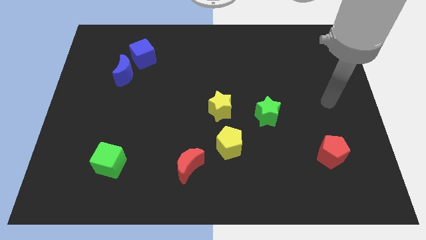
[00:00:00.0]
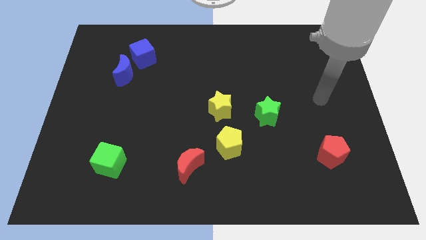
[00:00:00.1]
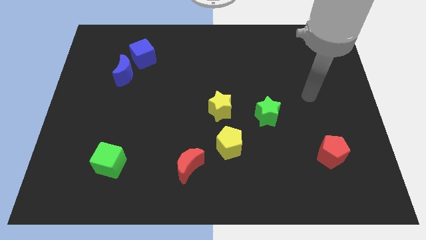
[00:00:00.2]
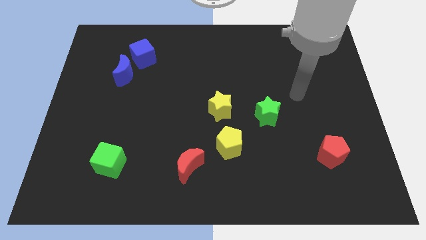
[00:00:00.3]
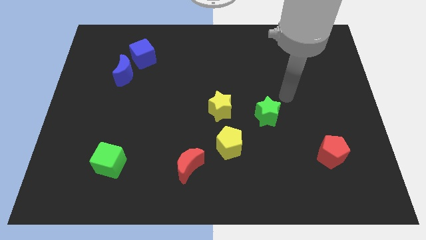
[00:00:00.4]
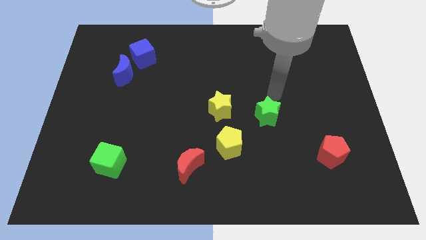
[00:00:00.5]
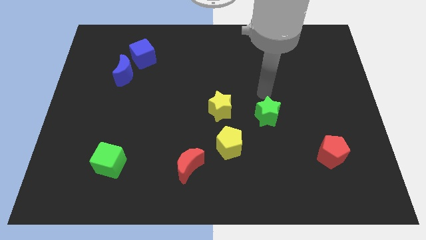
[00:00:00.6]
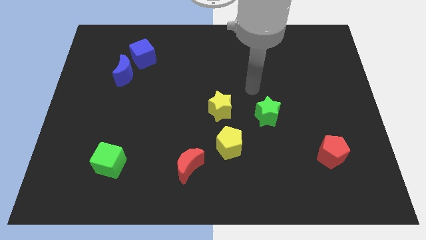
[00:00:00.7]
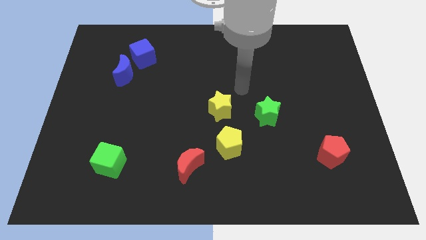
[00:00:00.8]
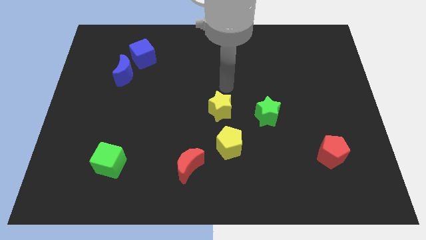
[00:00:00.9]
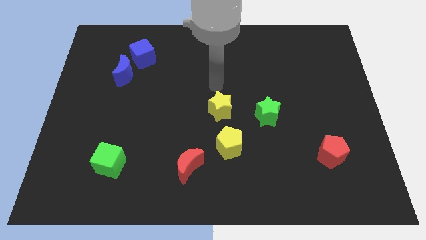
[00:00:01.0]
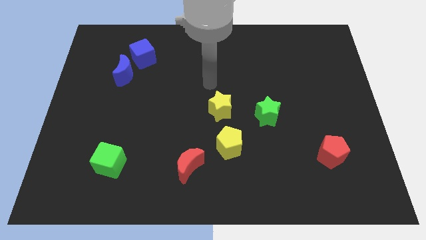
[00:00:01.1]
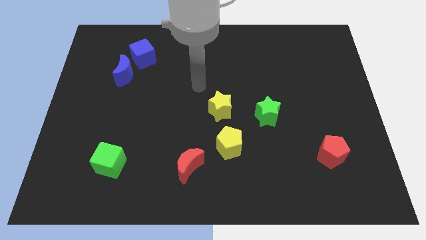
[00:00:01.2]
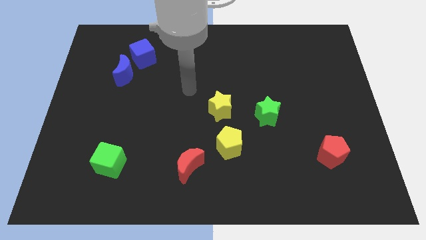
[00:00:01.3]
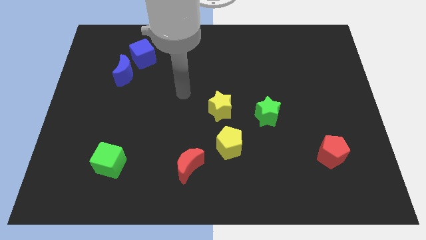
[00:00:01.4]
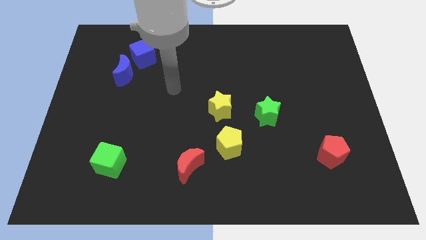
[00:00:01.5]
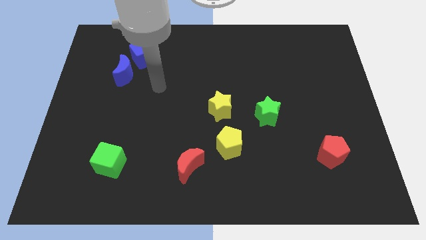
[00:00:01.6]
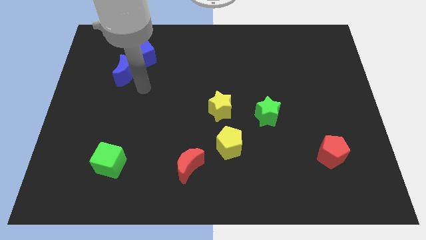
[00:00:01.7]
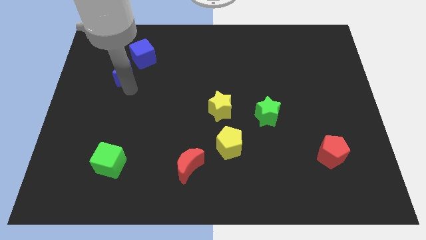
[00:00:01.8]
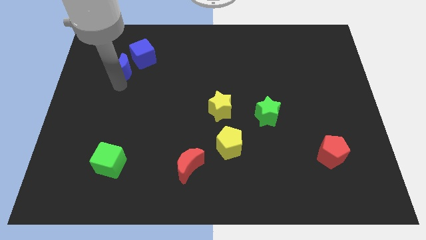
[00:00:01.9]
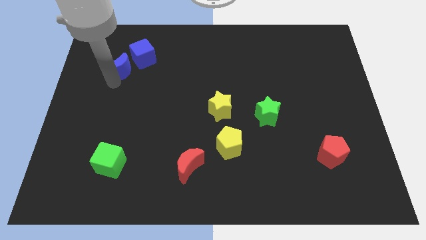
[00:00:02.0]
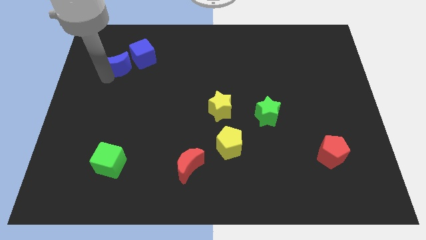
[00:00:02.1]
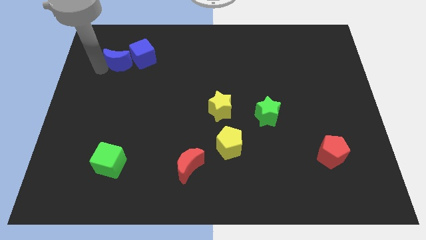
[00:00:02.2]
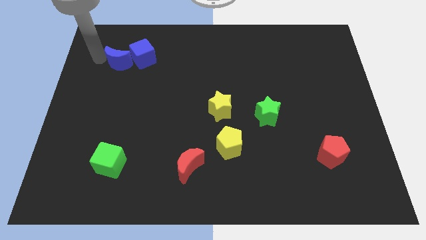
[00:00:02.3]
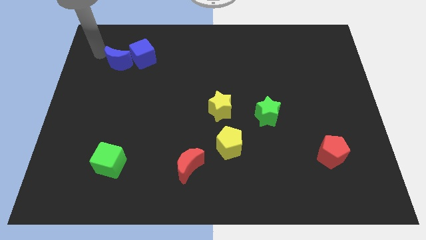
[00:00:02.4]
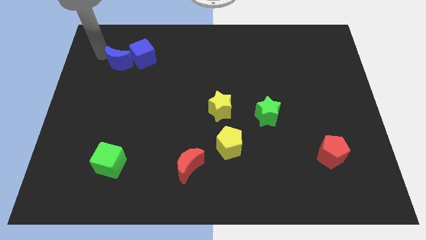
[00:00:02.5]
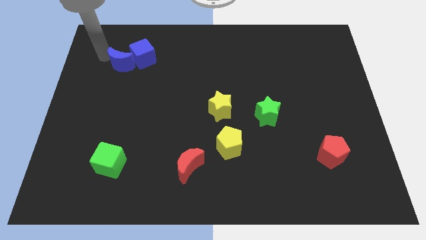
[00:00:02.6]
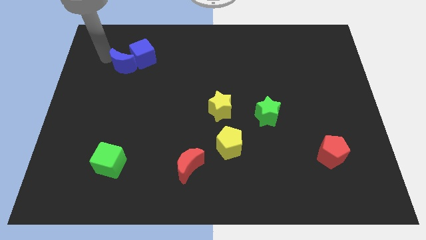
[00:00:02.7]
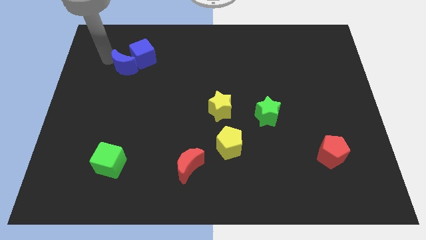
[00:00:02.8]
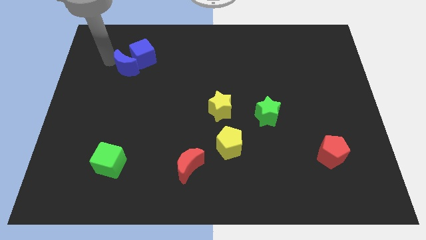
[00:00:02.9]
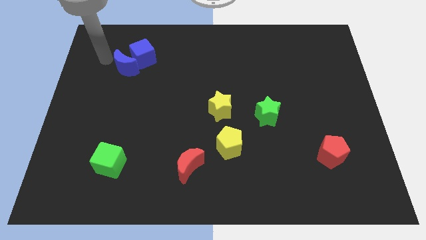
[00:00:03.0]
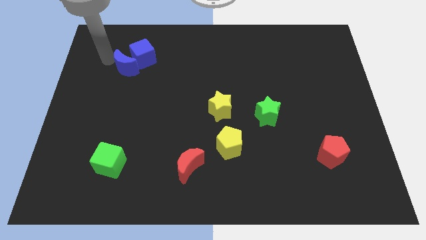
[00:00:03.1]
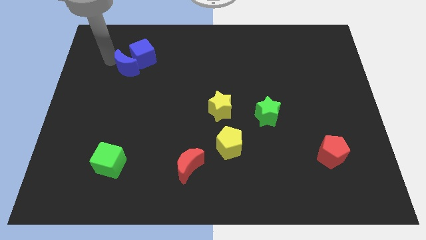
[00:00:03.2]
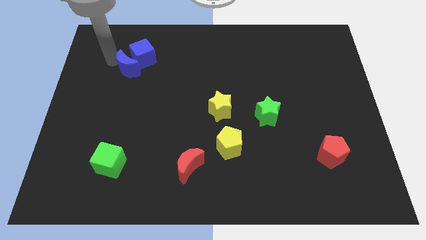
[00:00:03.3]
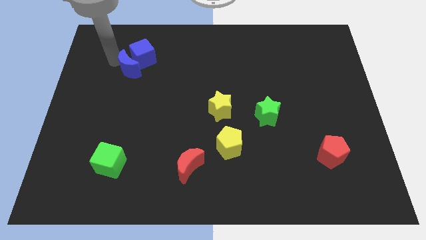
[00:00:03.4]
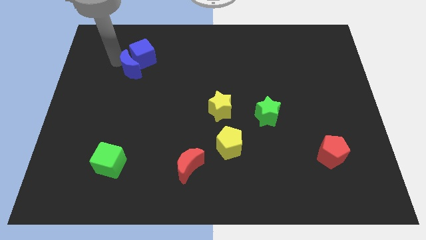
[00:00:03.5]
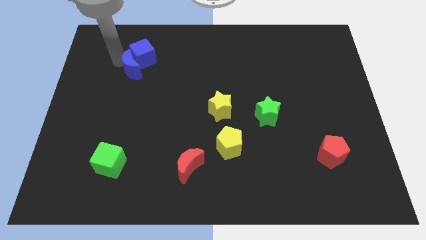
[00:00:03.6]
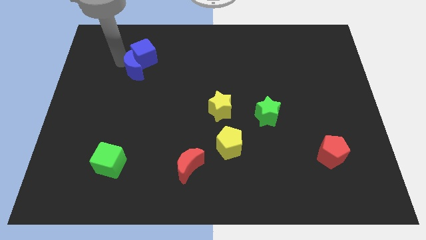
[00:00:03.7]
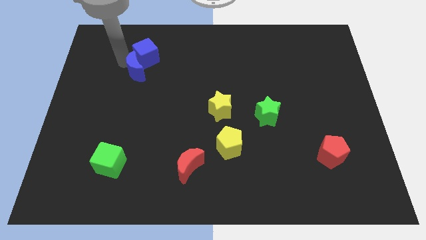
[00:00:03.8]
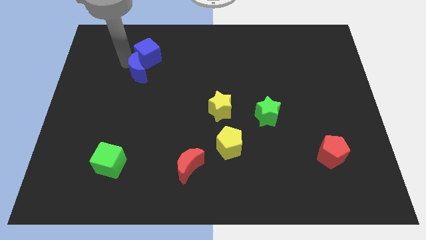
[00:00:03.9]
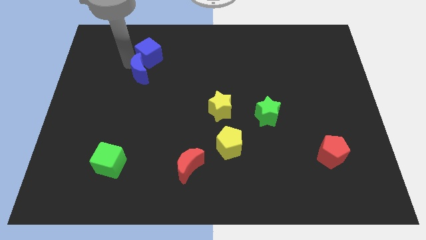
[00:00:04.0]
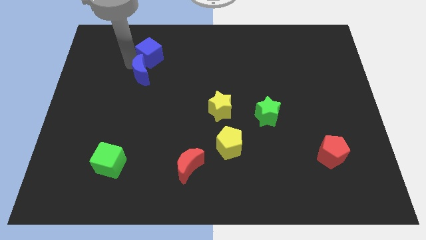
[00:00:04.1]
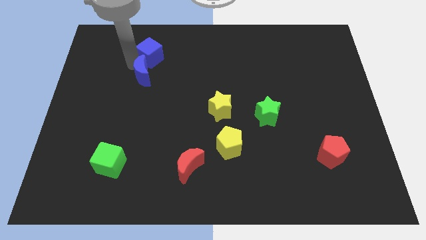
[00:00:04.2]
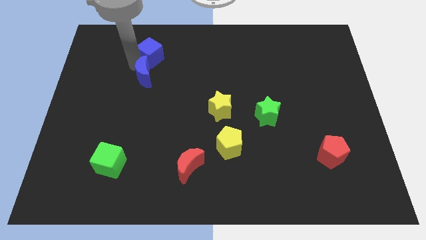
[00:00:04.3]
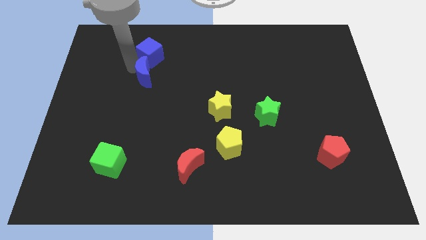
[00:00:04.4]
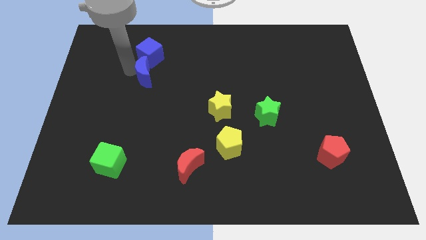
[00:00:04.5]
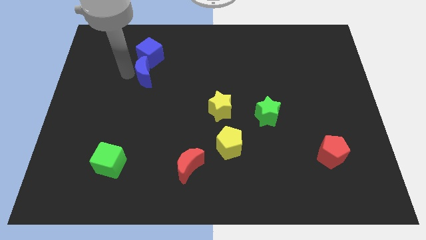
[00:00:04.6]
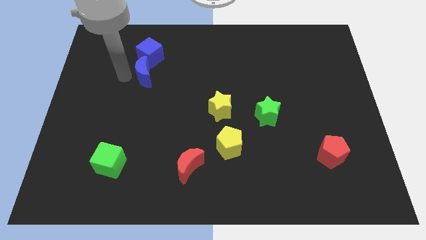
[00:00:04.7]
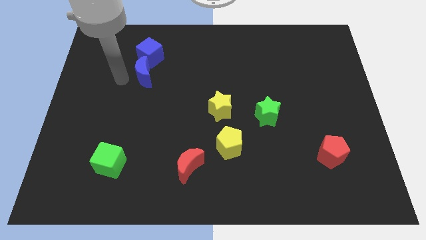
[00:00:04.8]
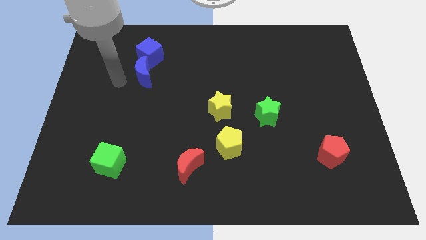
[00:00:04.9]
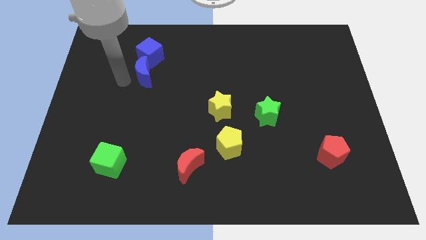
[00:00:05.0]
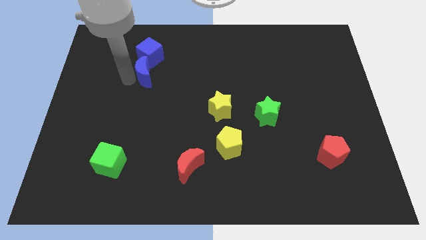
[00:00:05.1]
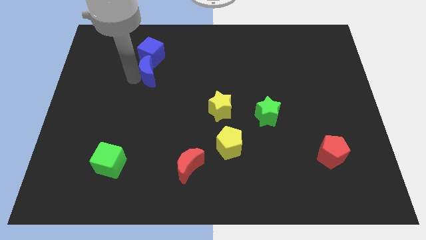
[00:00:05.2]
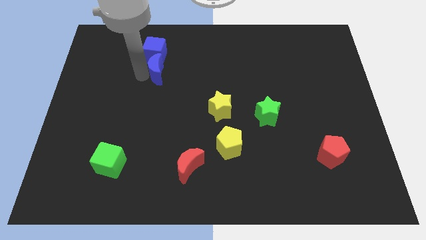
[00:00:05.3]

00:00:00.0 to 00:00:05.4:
slide the blue moon to the right somewhat

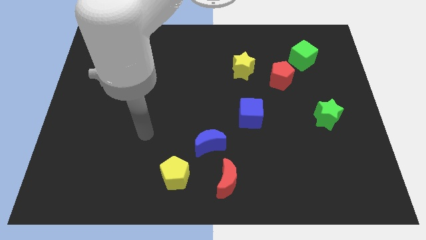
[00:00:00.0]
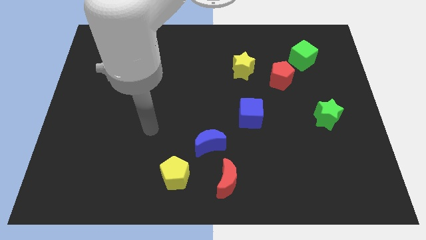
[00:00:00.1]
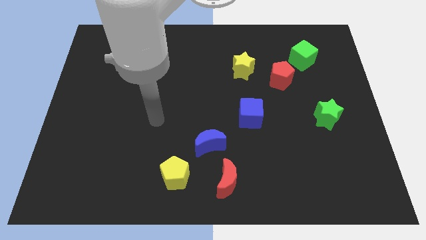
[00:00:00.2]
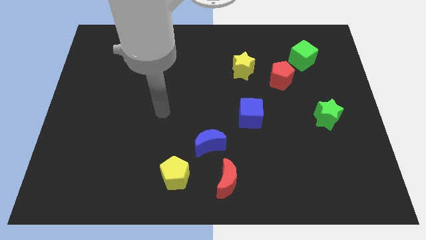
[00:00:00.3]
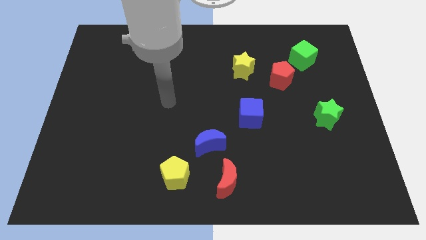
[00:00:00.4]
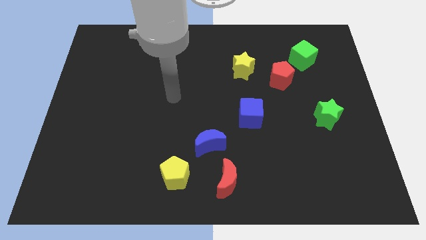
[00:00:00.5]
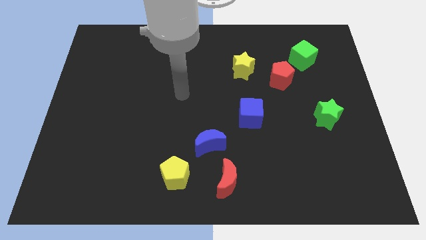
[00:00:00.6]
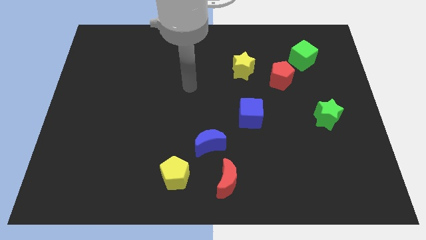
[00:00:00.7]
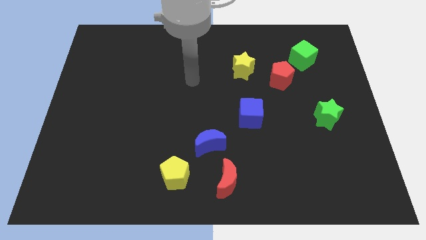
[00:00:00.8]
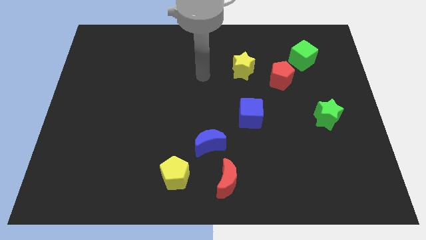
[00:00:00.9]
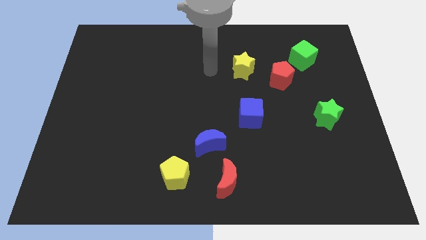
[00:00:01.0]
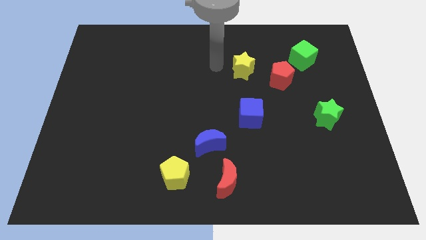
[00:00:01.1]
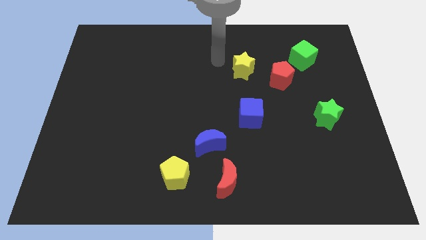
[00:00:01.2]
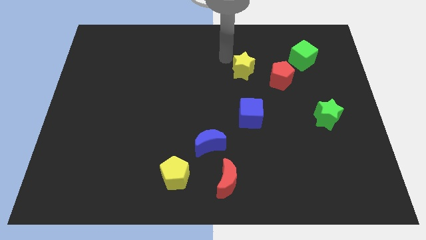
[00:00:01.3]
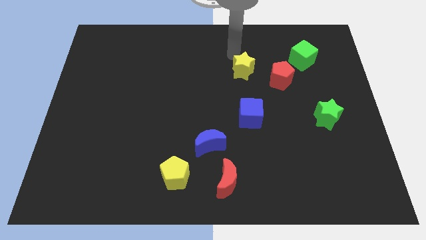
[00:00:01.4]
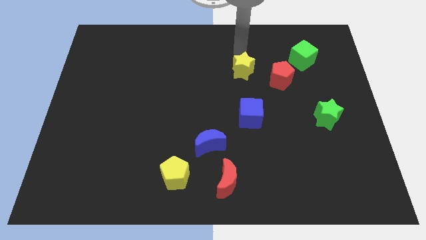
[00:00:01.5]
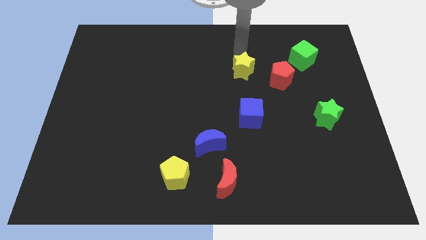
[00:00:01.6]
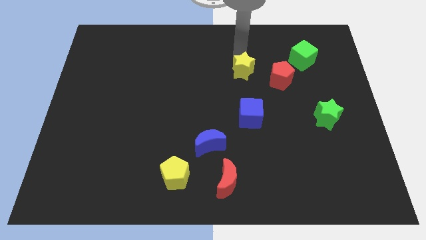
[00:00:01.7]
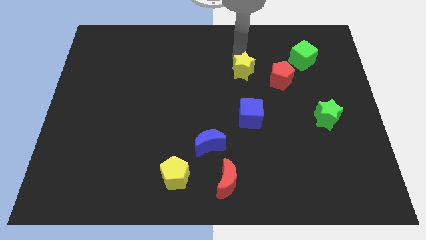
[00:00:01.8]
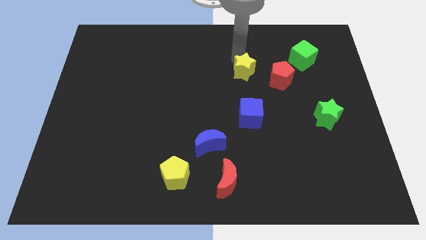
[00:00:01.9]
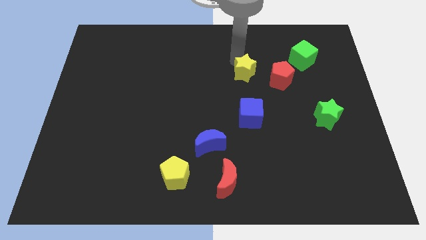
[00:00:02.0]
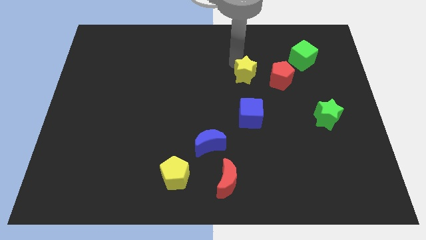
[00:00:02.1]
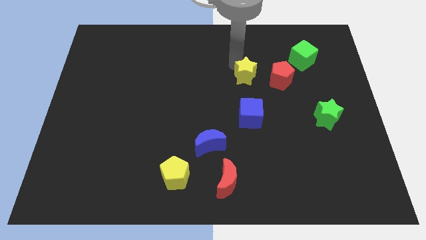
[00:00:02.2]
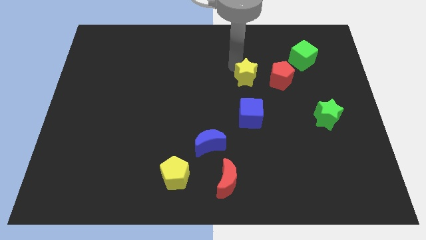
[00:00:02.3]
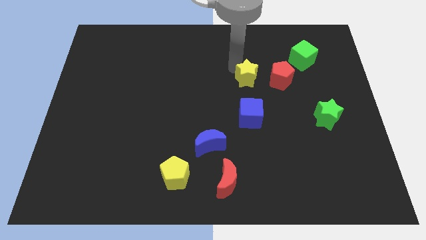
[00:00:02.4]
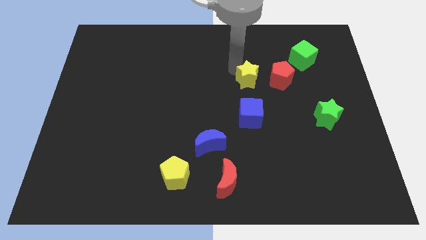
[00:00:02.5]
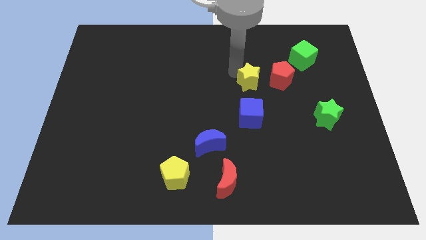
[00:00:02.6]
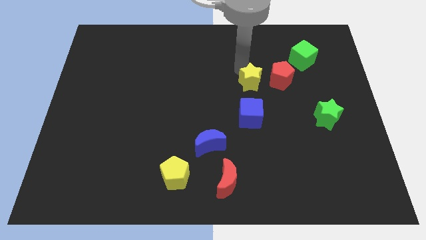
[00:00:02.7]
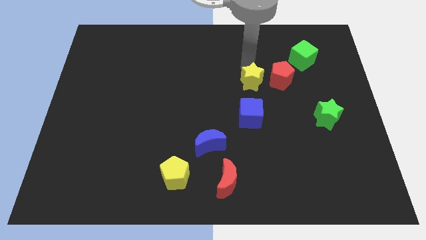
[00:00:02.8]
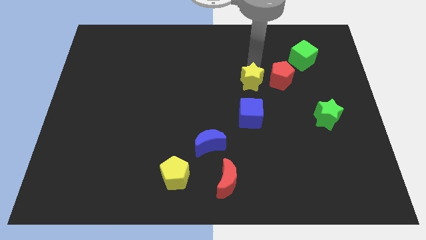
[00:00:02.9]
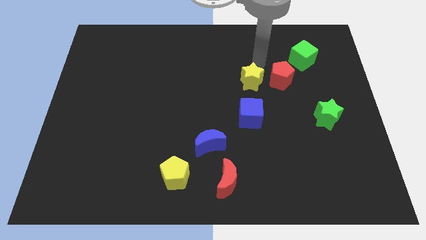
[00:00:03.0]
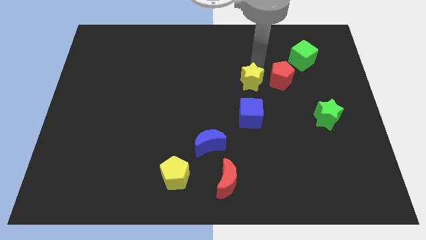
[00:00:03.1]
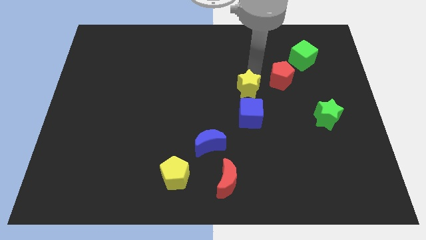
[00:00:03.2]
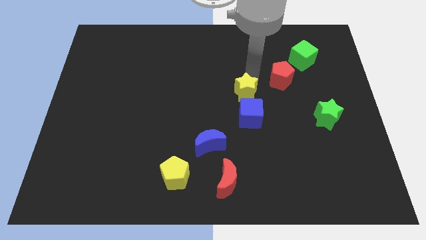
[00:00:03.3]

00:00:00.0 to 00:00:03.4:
push the yellow star slightly down
